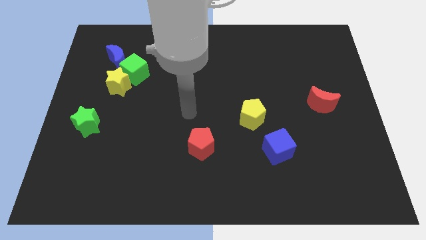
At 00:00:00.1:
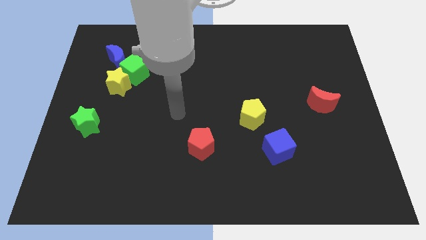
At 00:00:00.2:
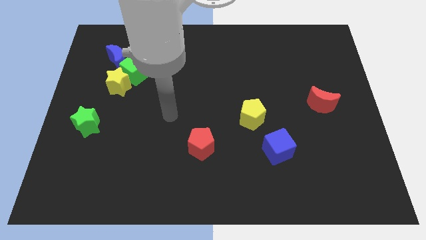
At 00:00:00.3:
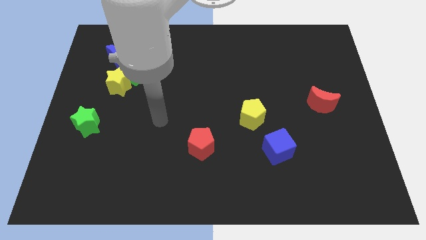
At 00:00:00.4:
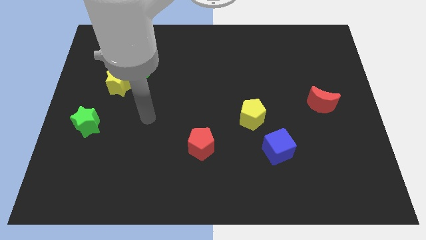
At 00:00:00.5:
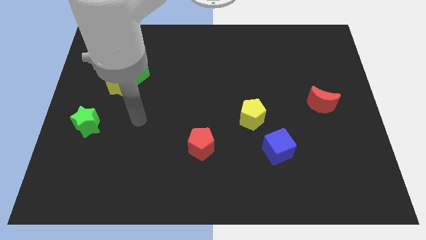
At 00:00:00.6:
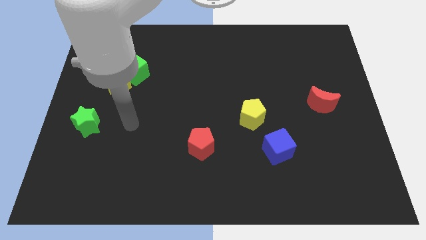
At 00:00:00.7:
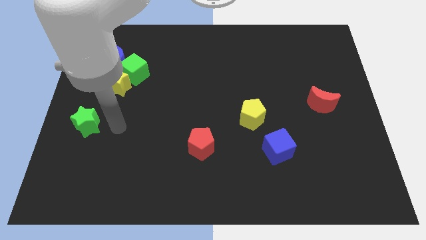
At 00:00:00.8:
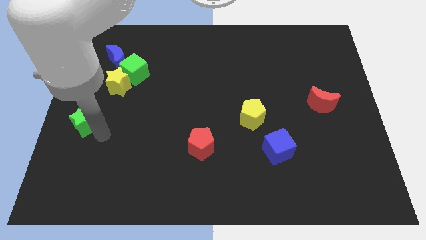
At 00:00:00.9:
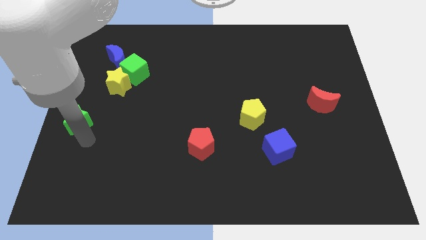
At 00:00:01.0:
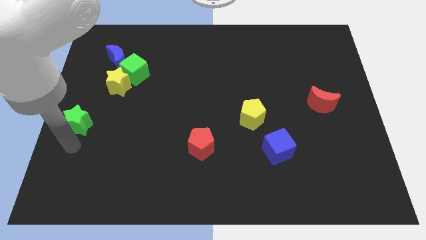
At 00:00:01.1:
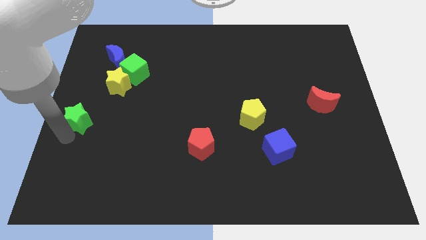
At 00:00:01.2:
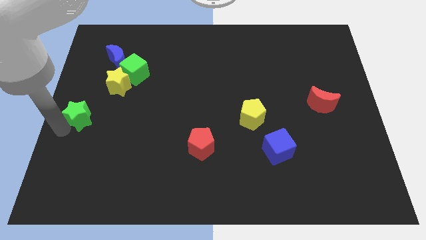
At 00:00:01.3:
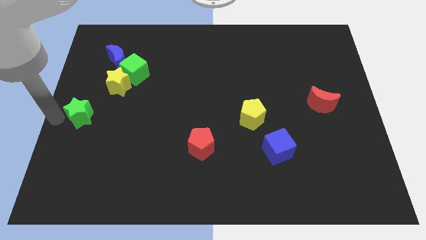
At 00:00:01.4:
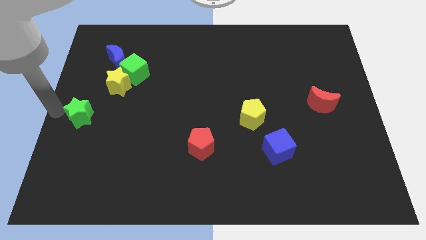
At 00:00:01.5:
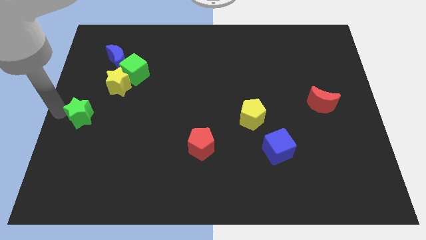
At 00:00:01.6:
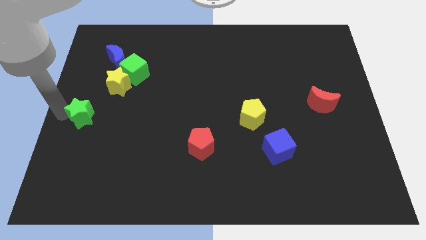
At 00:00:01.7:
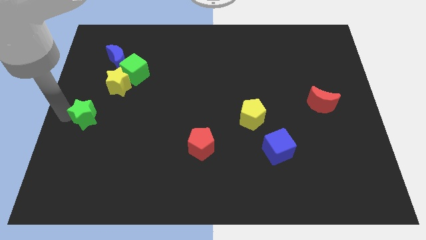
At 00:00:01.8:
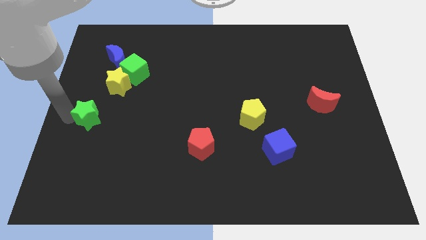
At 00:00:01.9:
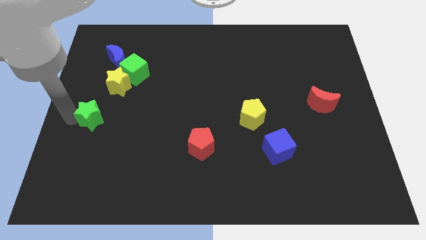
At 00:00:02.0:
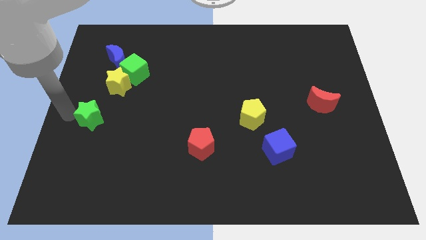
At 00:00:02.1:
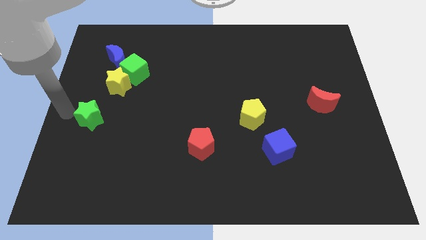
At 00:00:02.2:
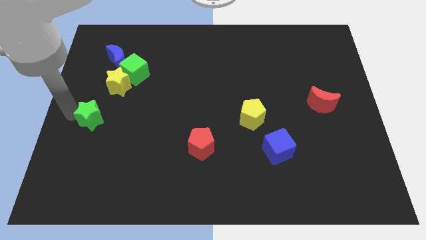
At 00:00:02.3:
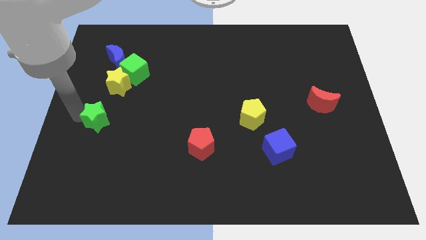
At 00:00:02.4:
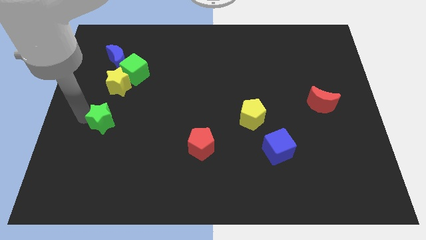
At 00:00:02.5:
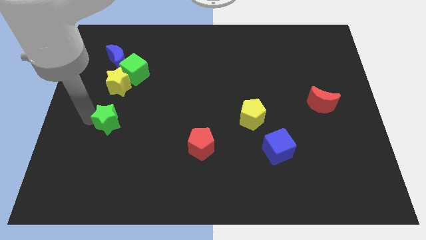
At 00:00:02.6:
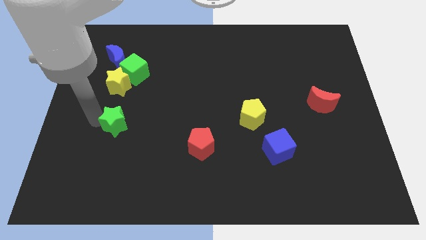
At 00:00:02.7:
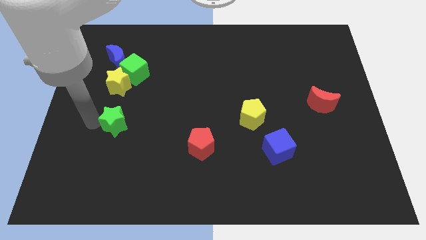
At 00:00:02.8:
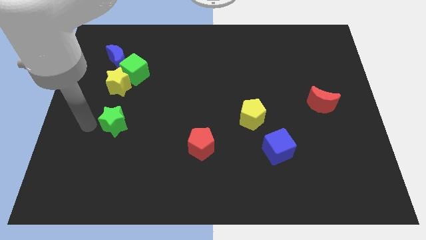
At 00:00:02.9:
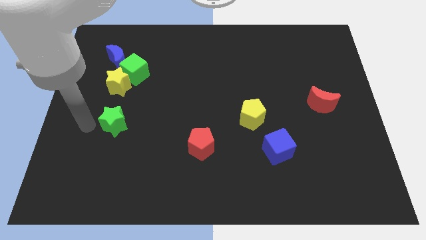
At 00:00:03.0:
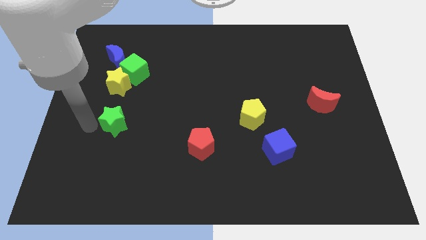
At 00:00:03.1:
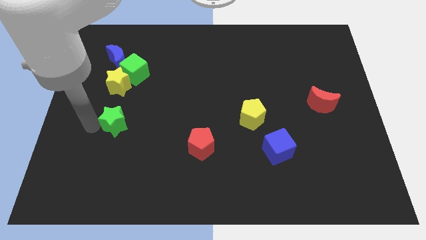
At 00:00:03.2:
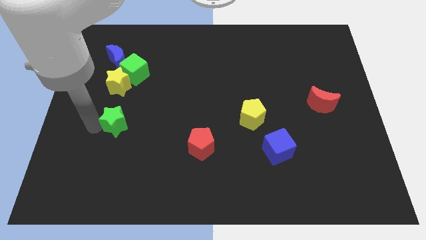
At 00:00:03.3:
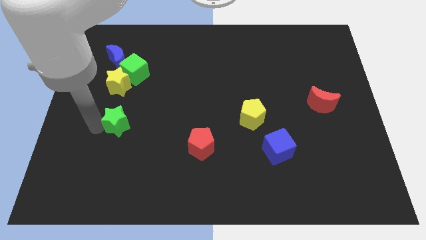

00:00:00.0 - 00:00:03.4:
slightly push the green star to the right

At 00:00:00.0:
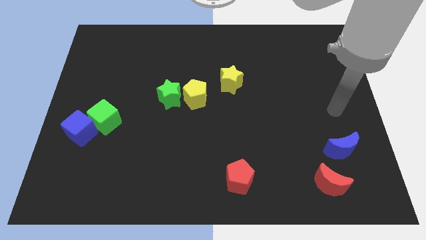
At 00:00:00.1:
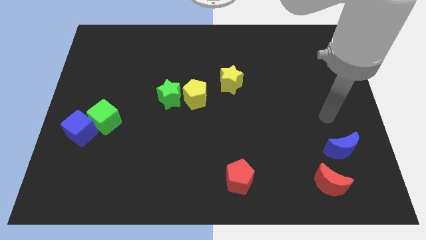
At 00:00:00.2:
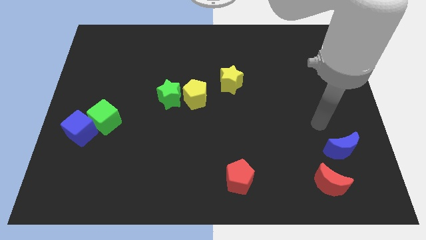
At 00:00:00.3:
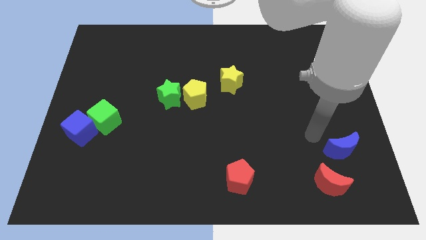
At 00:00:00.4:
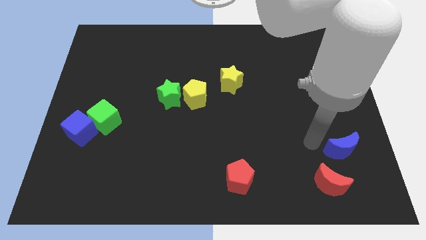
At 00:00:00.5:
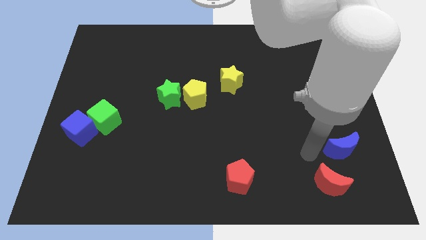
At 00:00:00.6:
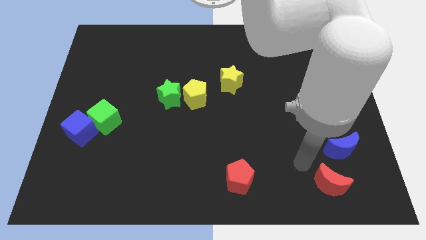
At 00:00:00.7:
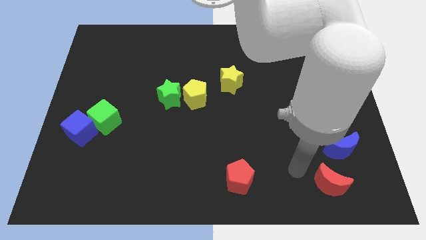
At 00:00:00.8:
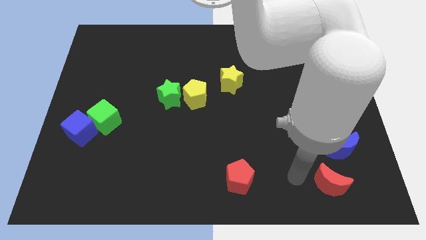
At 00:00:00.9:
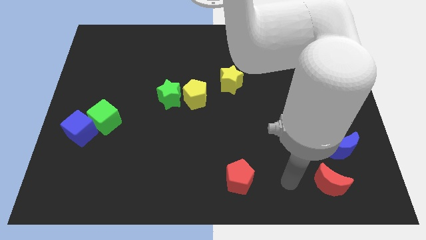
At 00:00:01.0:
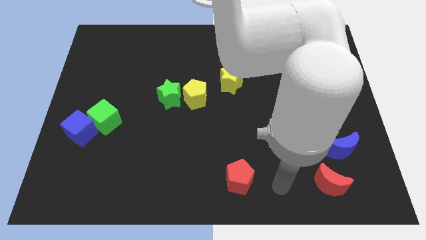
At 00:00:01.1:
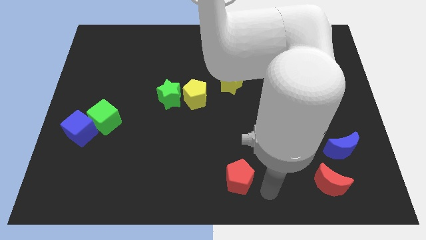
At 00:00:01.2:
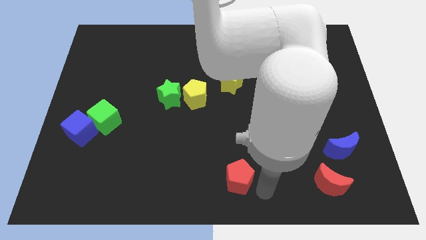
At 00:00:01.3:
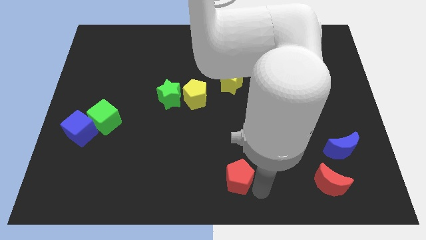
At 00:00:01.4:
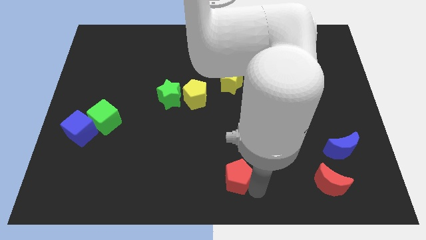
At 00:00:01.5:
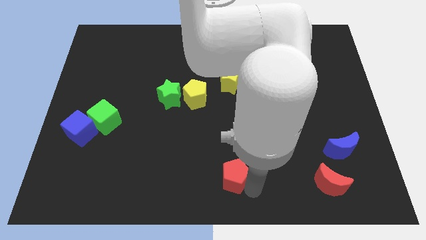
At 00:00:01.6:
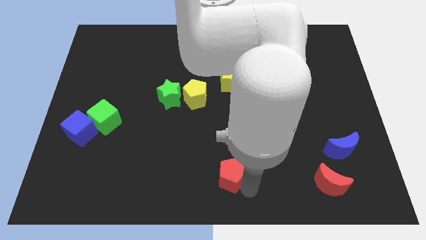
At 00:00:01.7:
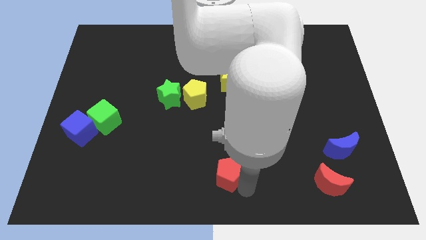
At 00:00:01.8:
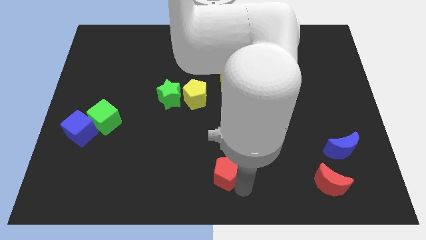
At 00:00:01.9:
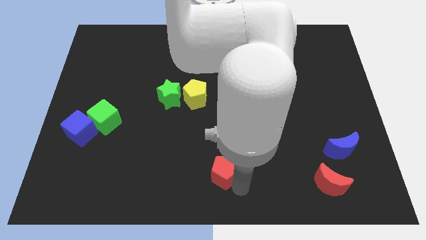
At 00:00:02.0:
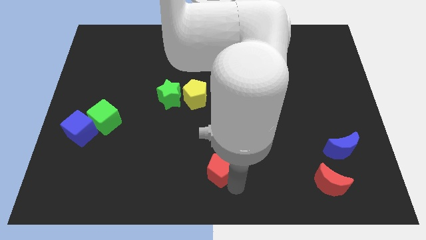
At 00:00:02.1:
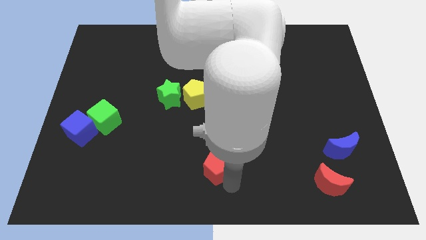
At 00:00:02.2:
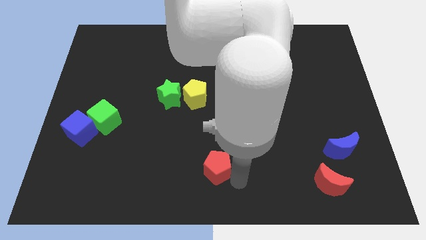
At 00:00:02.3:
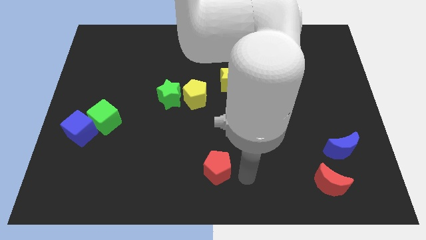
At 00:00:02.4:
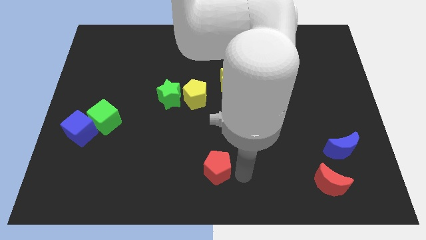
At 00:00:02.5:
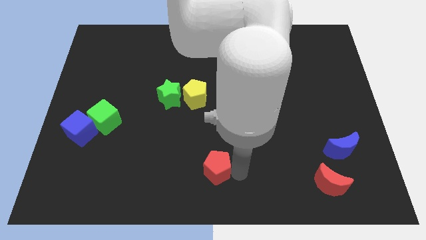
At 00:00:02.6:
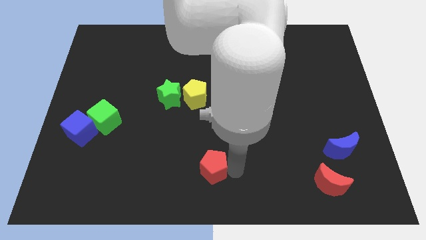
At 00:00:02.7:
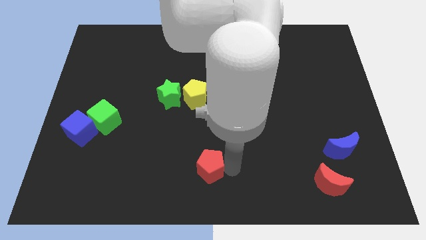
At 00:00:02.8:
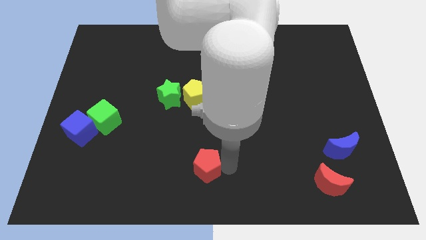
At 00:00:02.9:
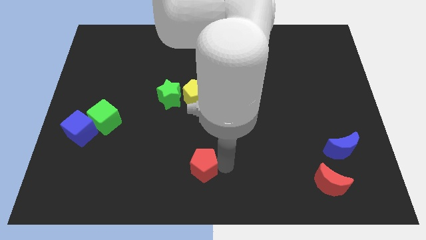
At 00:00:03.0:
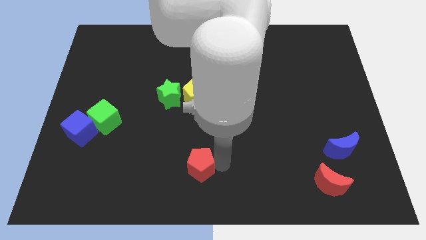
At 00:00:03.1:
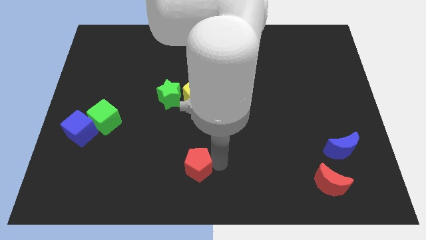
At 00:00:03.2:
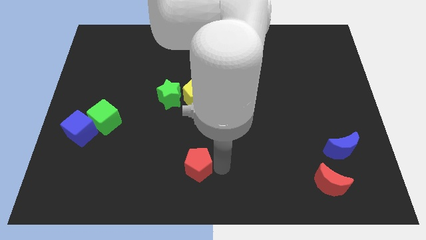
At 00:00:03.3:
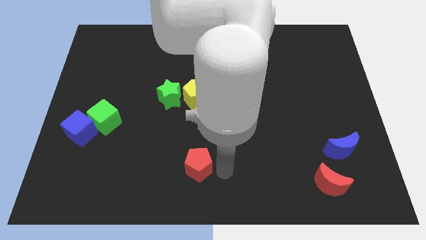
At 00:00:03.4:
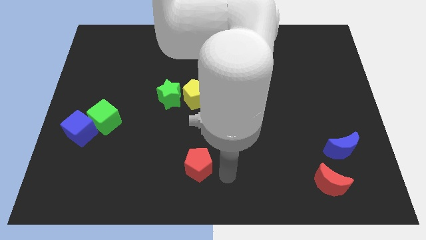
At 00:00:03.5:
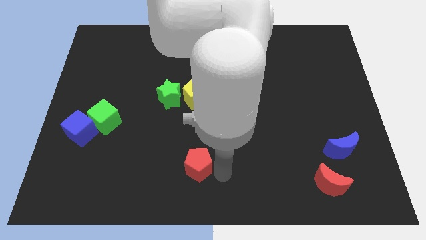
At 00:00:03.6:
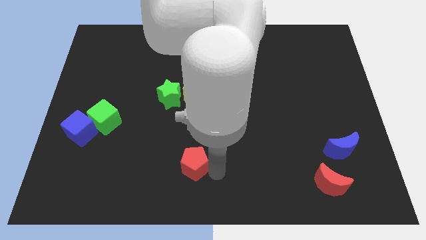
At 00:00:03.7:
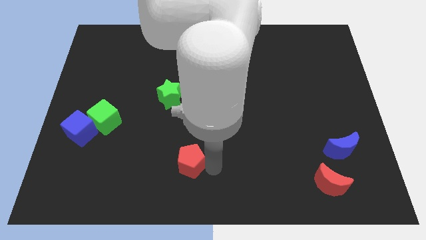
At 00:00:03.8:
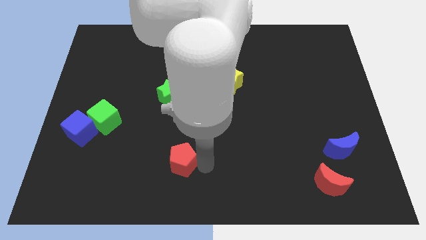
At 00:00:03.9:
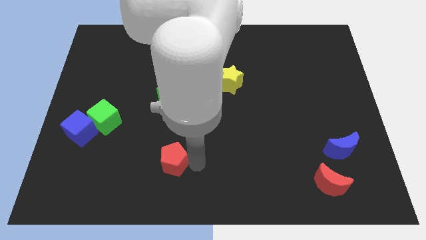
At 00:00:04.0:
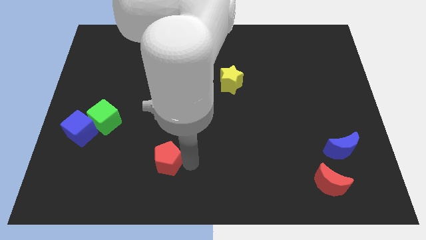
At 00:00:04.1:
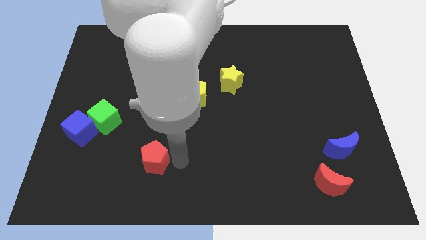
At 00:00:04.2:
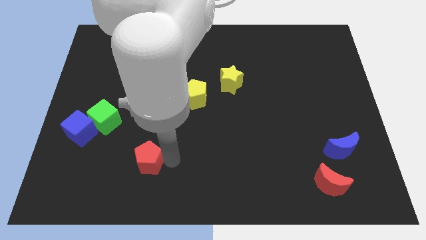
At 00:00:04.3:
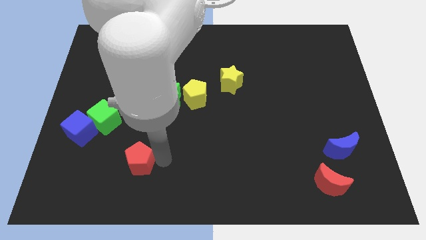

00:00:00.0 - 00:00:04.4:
move the red pentagon left

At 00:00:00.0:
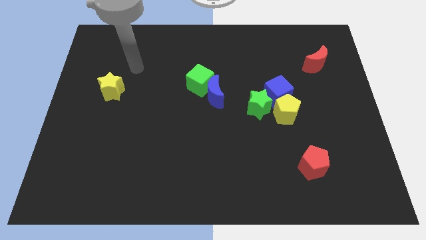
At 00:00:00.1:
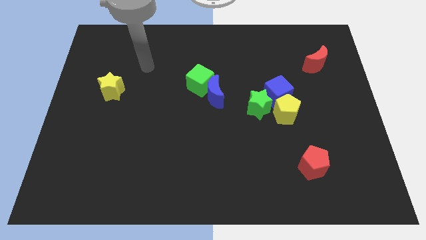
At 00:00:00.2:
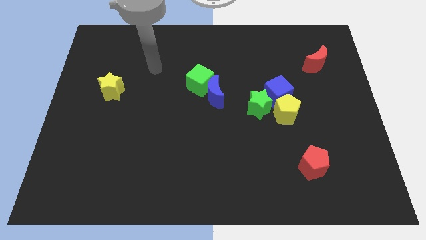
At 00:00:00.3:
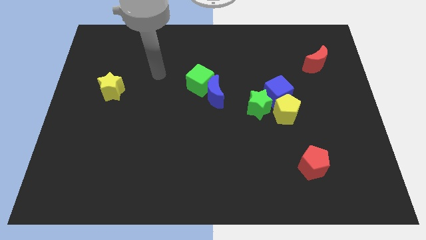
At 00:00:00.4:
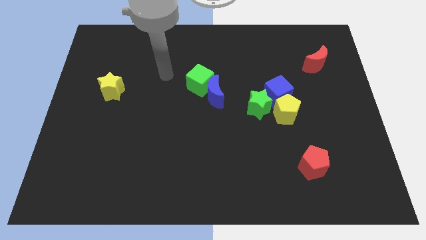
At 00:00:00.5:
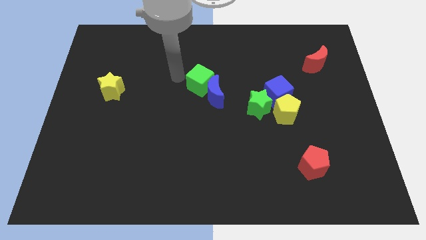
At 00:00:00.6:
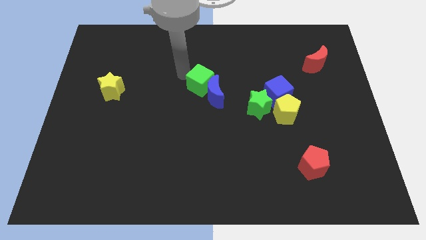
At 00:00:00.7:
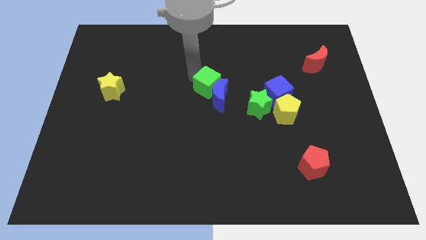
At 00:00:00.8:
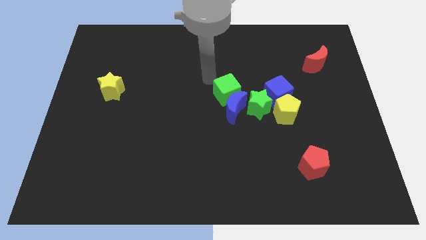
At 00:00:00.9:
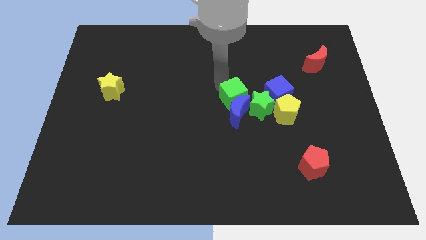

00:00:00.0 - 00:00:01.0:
push the blue moon a little bit down and then right
